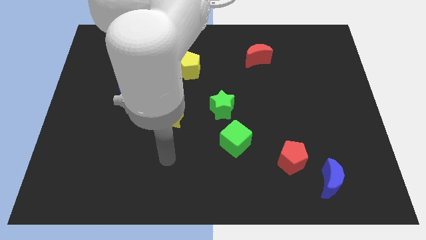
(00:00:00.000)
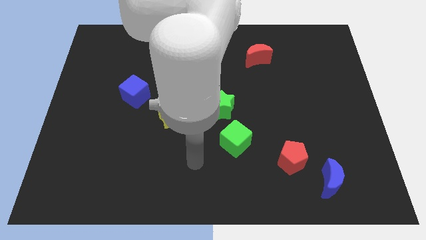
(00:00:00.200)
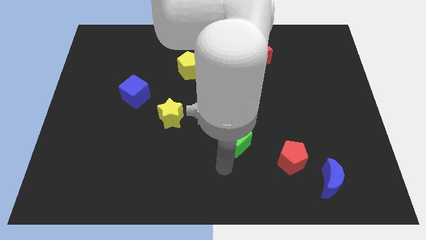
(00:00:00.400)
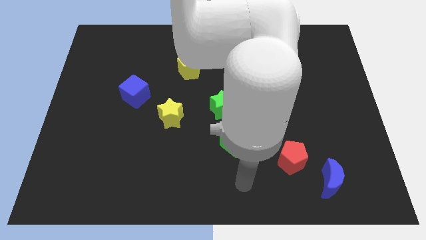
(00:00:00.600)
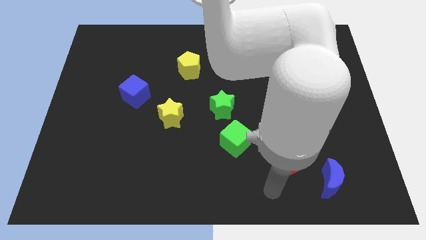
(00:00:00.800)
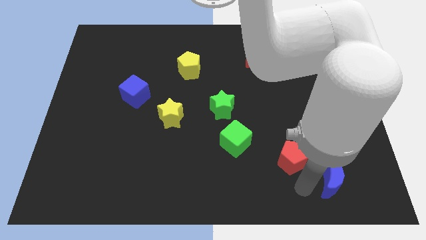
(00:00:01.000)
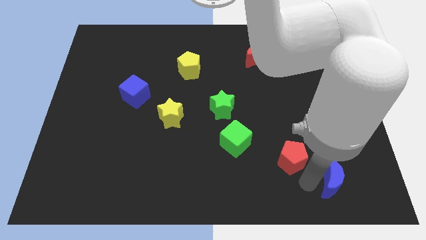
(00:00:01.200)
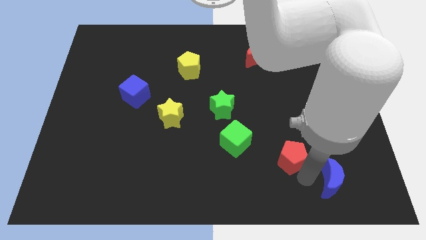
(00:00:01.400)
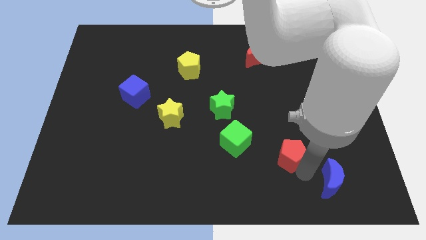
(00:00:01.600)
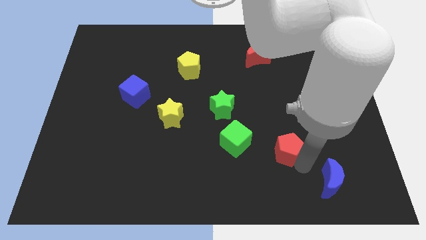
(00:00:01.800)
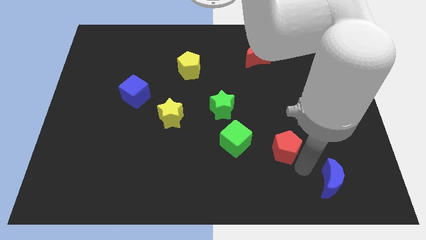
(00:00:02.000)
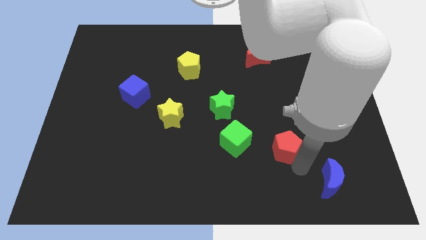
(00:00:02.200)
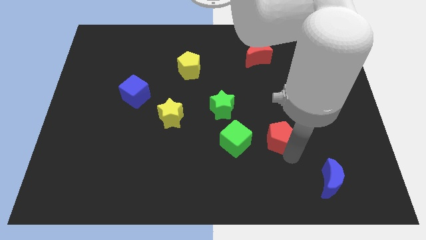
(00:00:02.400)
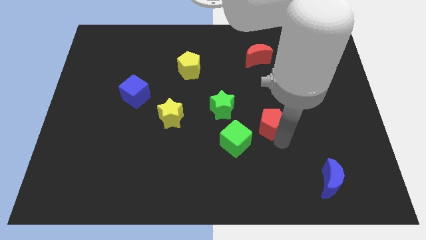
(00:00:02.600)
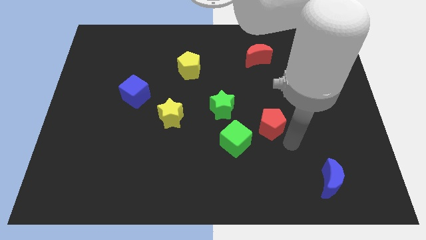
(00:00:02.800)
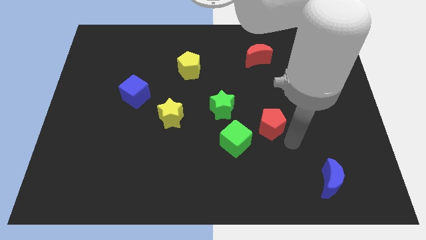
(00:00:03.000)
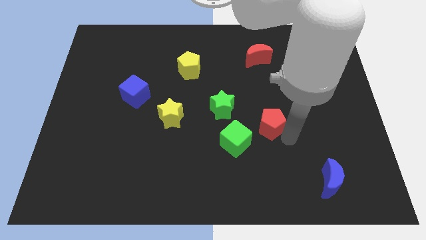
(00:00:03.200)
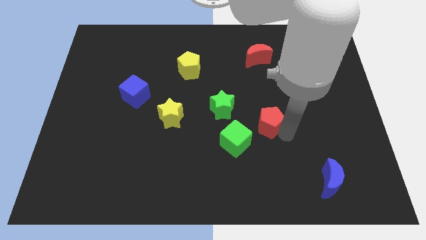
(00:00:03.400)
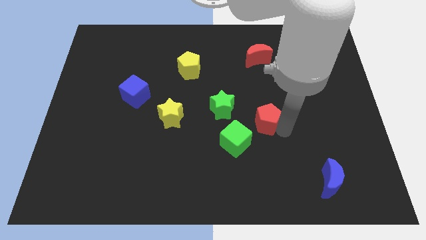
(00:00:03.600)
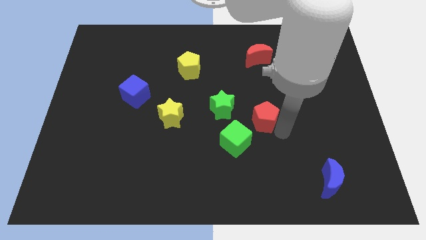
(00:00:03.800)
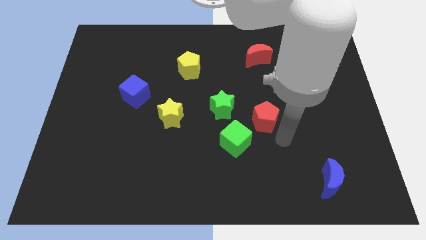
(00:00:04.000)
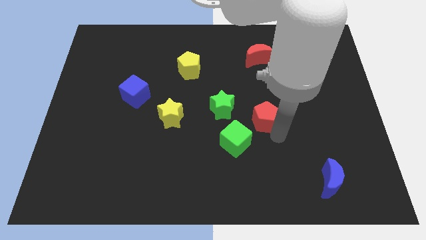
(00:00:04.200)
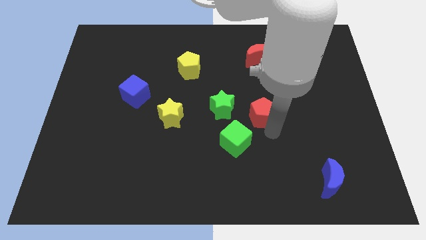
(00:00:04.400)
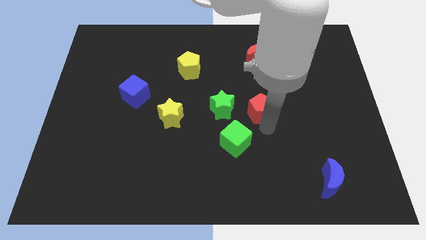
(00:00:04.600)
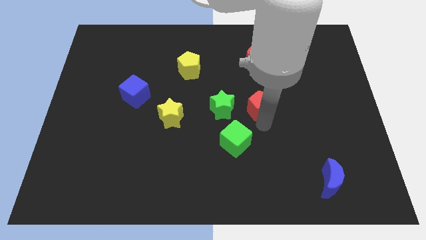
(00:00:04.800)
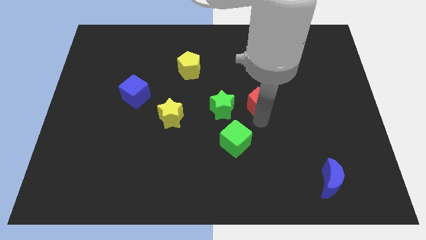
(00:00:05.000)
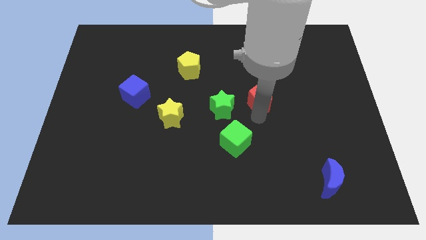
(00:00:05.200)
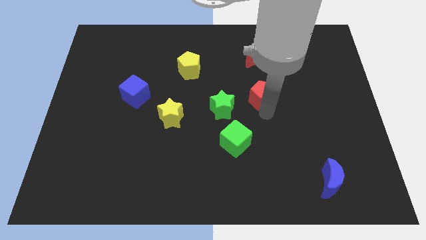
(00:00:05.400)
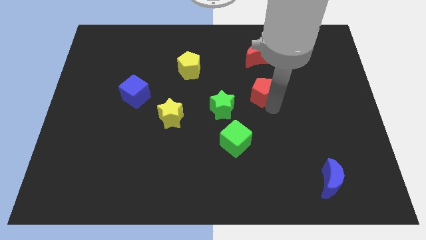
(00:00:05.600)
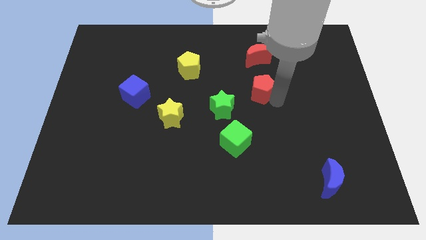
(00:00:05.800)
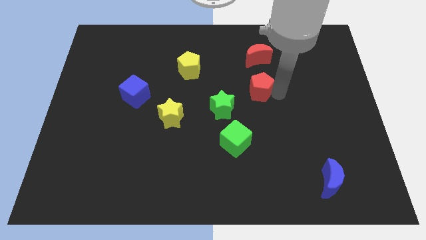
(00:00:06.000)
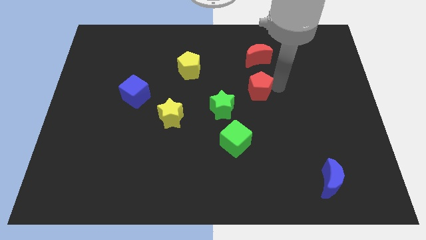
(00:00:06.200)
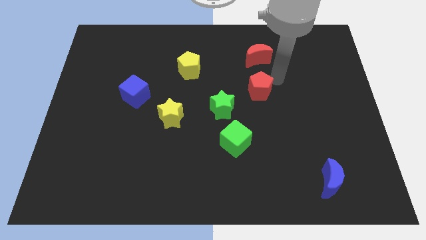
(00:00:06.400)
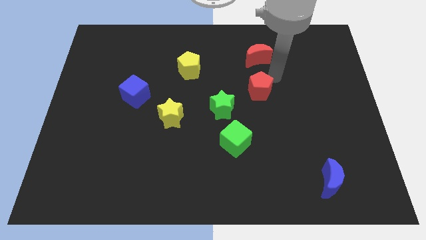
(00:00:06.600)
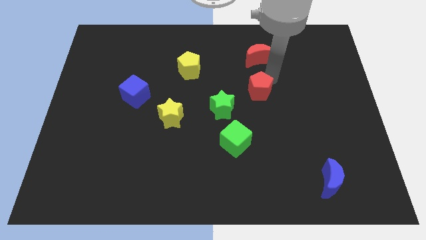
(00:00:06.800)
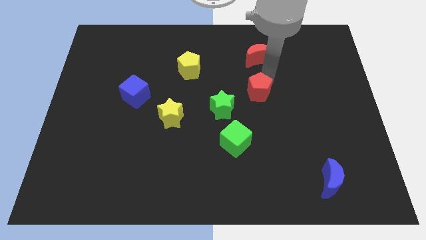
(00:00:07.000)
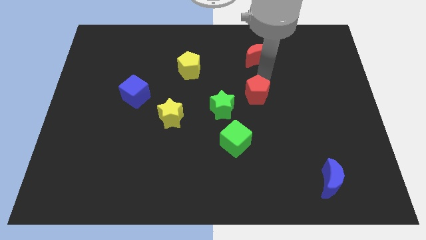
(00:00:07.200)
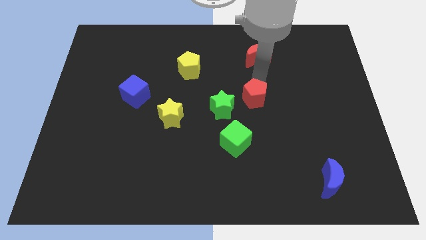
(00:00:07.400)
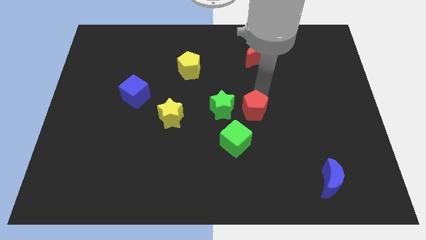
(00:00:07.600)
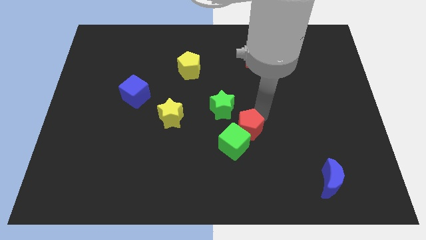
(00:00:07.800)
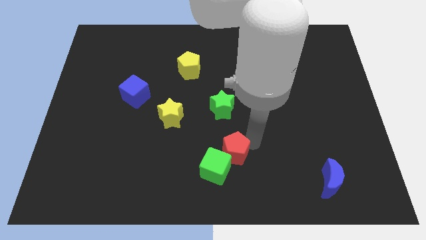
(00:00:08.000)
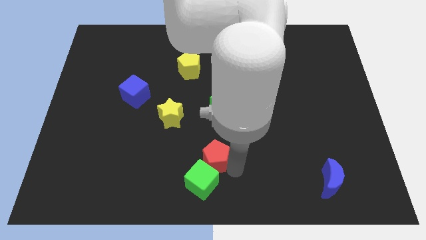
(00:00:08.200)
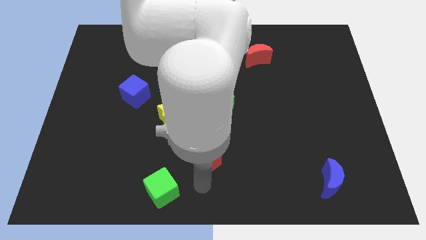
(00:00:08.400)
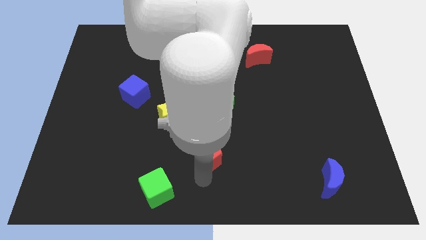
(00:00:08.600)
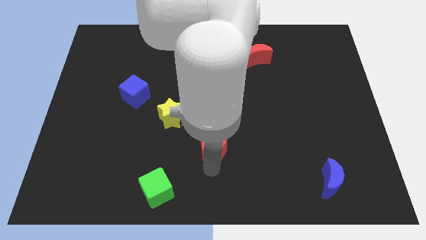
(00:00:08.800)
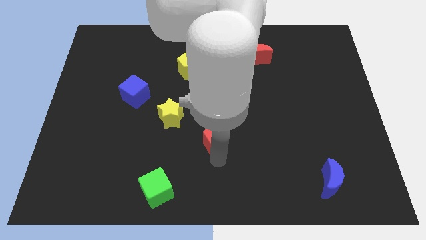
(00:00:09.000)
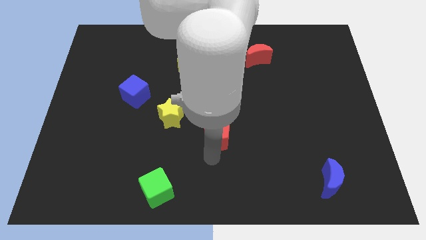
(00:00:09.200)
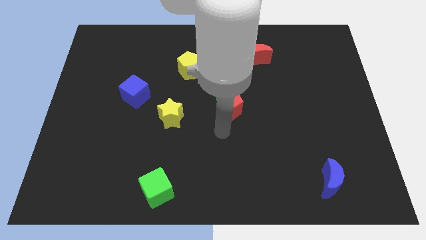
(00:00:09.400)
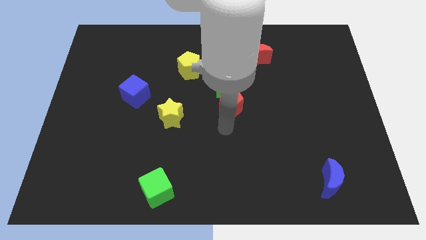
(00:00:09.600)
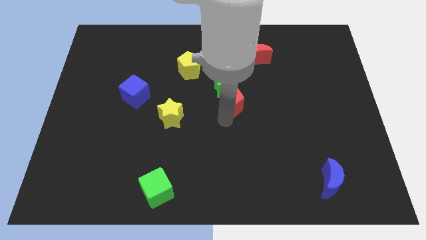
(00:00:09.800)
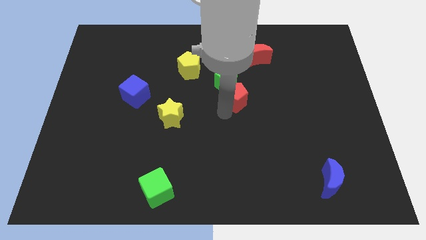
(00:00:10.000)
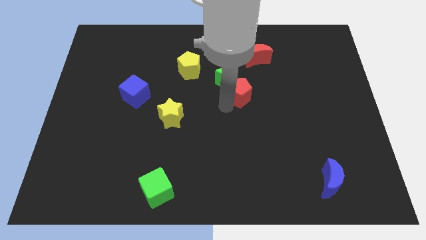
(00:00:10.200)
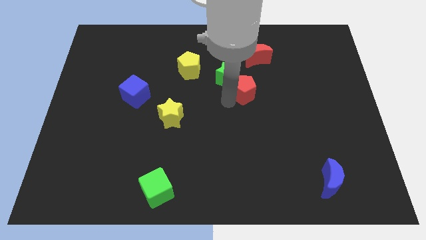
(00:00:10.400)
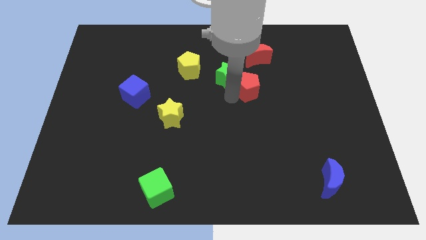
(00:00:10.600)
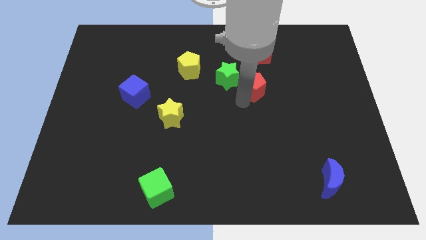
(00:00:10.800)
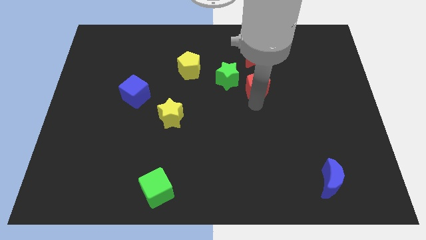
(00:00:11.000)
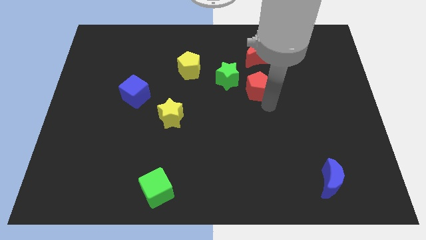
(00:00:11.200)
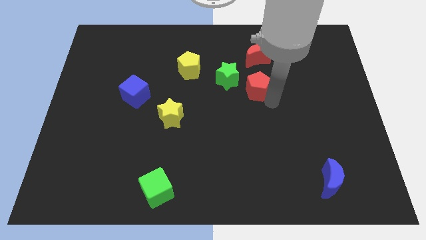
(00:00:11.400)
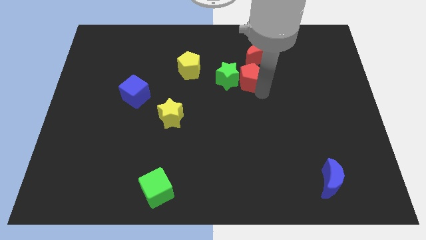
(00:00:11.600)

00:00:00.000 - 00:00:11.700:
slide the red pentagon to the bottom left of the red moon
